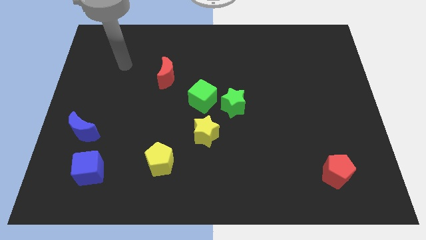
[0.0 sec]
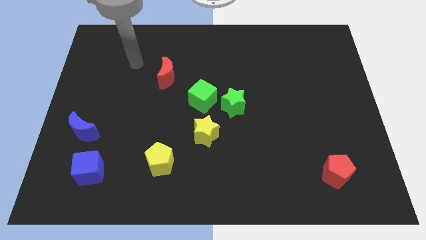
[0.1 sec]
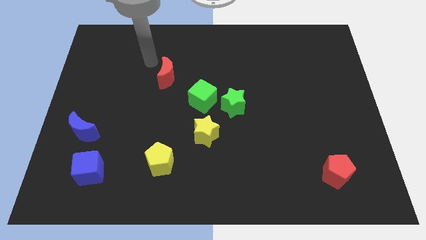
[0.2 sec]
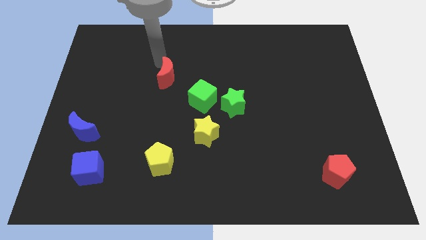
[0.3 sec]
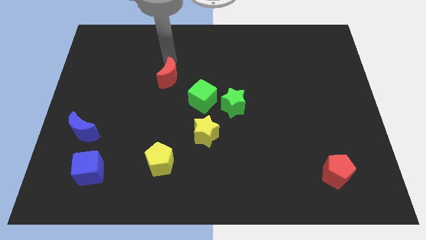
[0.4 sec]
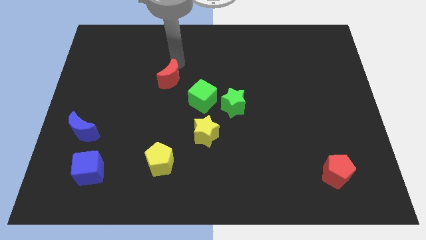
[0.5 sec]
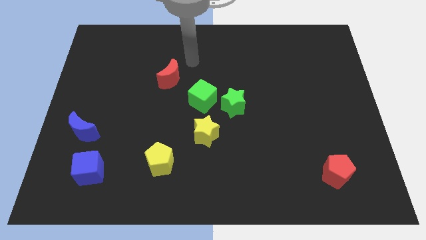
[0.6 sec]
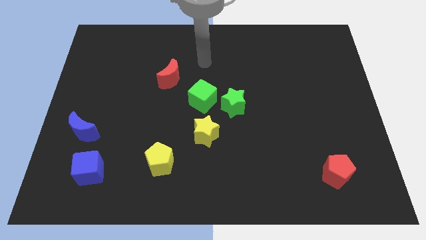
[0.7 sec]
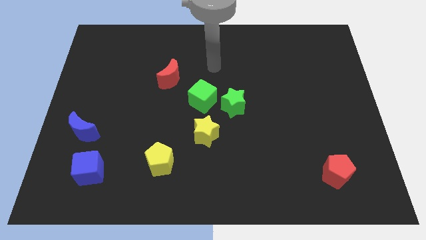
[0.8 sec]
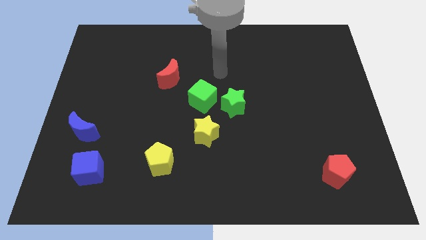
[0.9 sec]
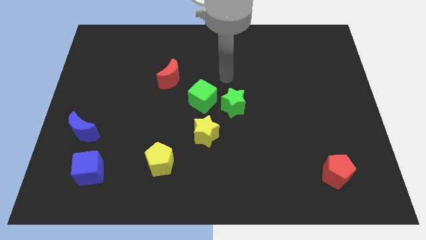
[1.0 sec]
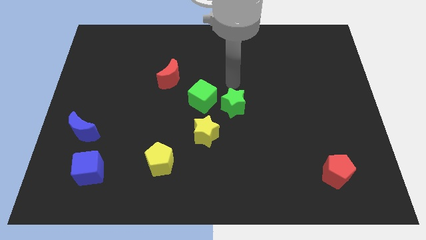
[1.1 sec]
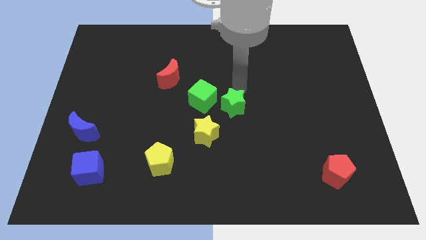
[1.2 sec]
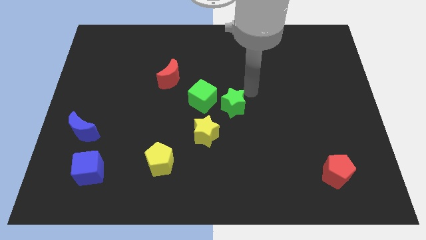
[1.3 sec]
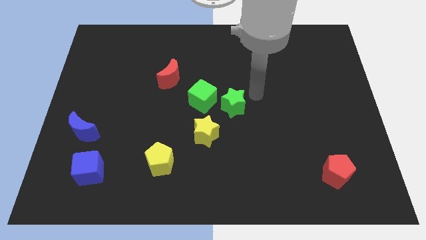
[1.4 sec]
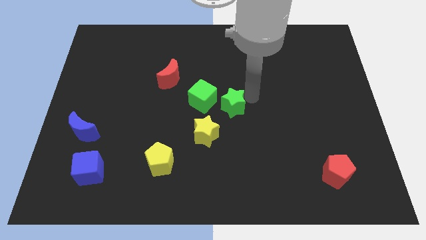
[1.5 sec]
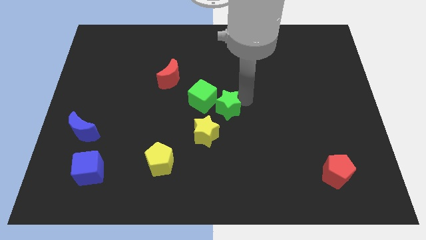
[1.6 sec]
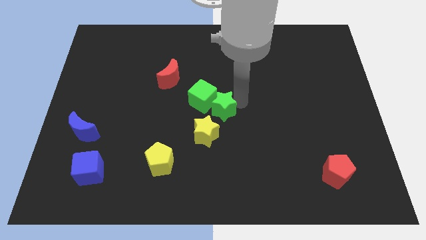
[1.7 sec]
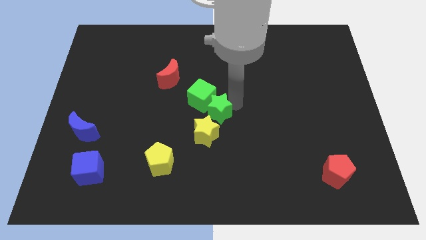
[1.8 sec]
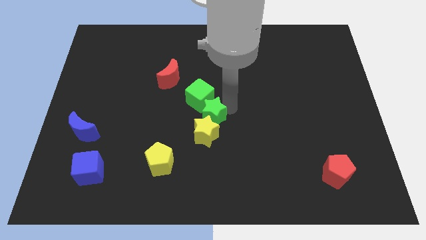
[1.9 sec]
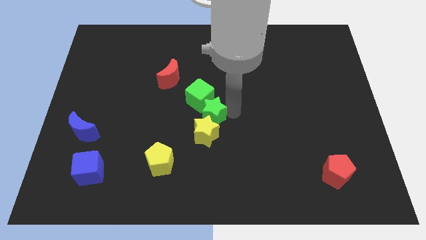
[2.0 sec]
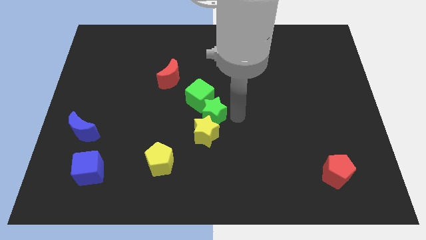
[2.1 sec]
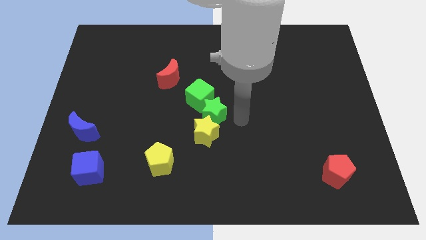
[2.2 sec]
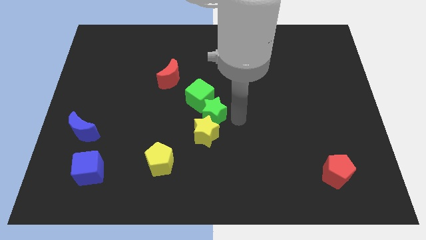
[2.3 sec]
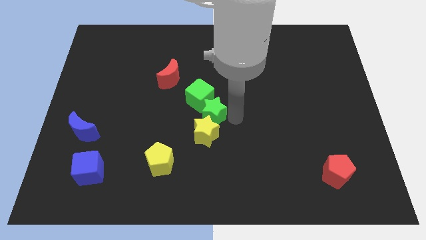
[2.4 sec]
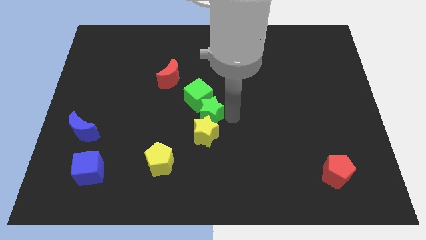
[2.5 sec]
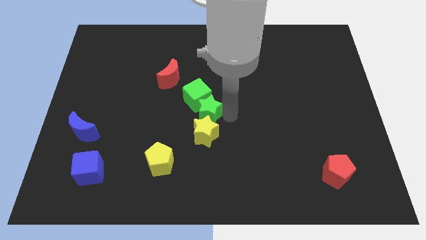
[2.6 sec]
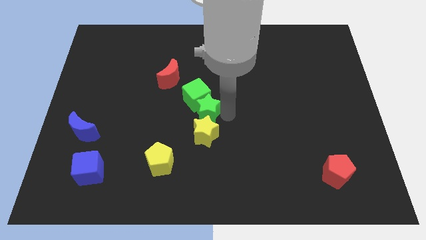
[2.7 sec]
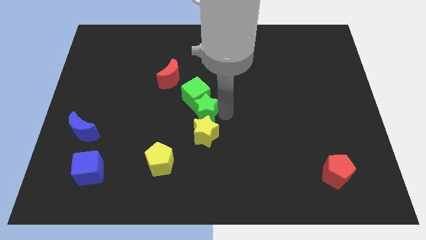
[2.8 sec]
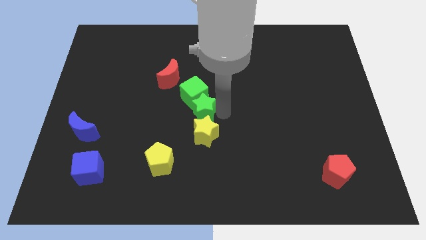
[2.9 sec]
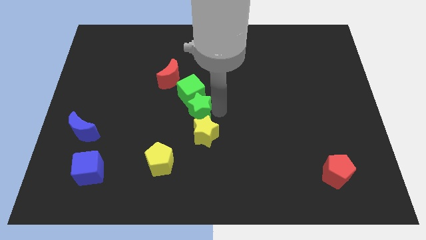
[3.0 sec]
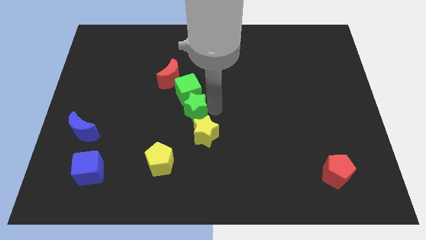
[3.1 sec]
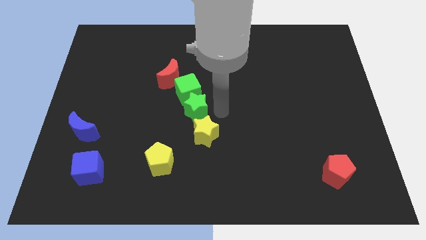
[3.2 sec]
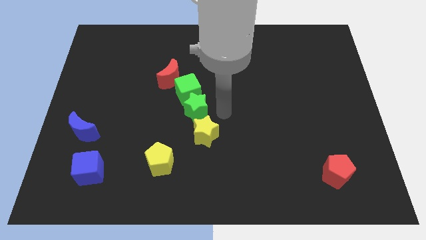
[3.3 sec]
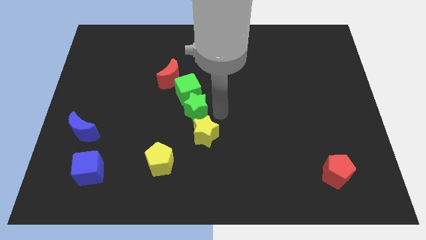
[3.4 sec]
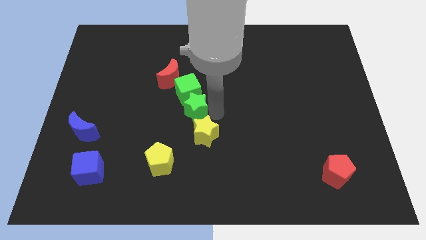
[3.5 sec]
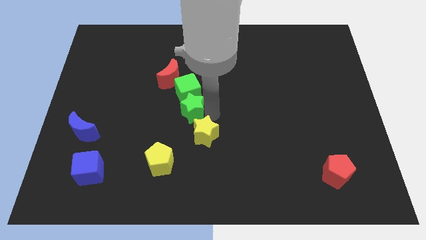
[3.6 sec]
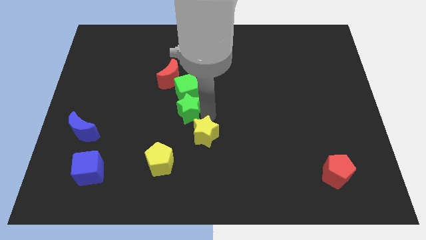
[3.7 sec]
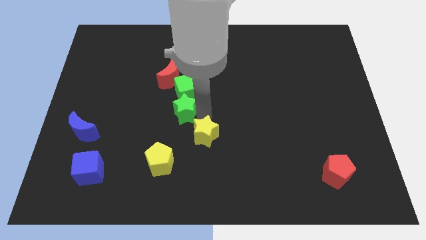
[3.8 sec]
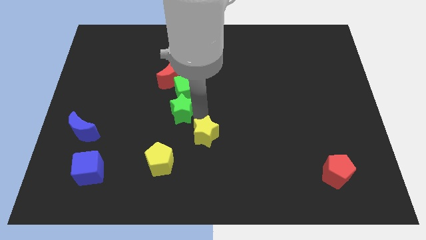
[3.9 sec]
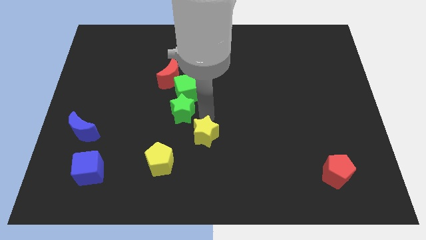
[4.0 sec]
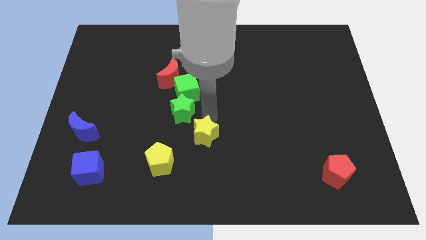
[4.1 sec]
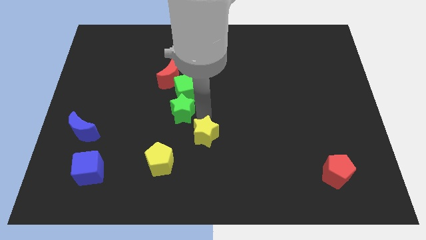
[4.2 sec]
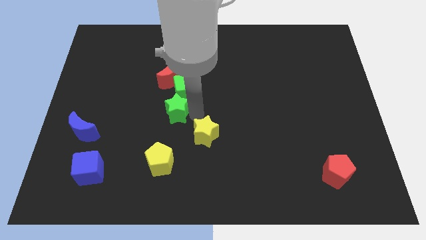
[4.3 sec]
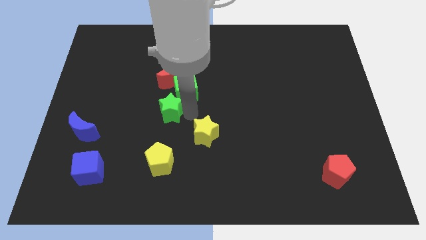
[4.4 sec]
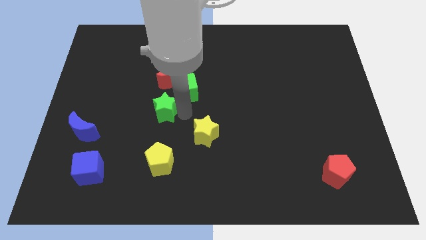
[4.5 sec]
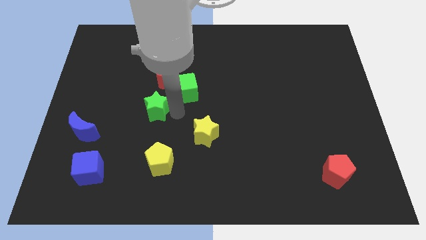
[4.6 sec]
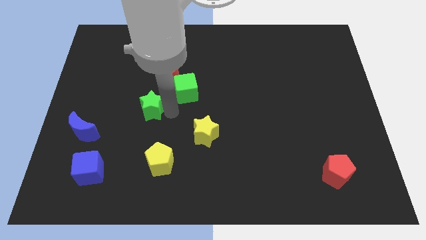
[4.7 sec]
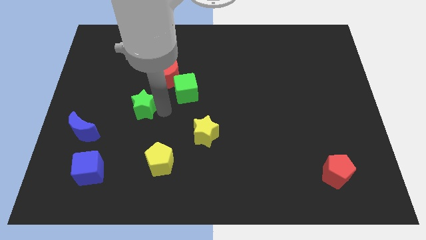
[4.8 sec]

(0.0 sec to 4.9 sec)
slide the green star left

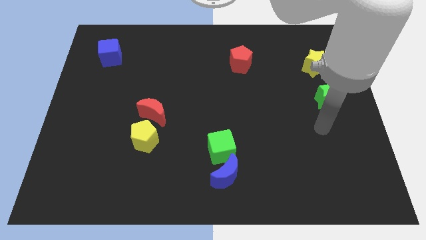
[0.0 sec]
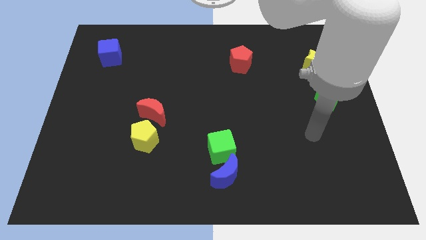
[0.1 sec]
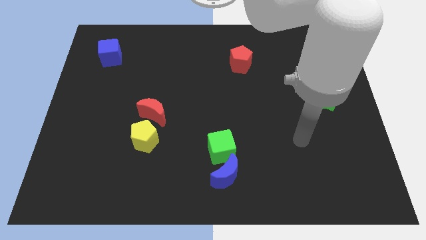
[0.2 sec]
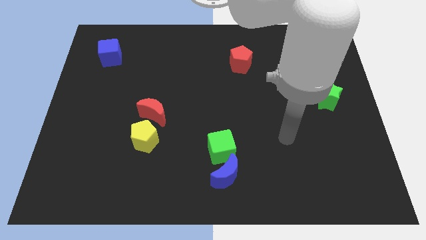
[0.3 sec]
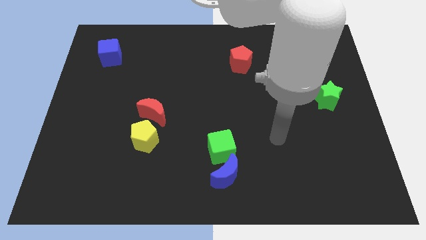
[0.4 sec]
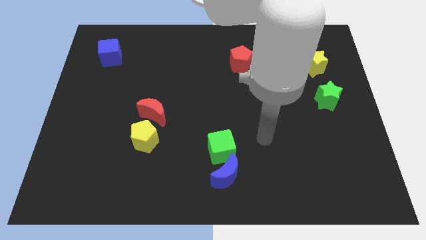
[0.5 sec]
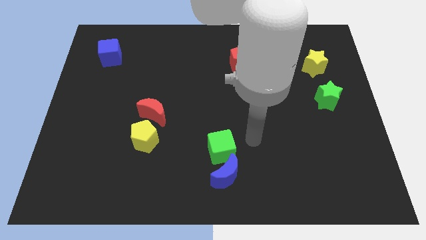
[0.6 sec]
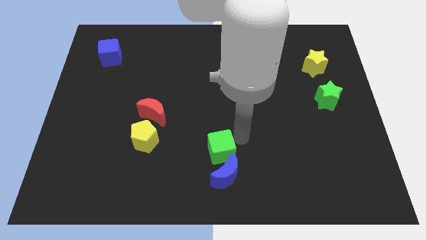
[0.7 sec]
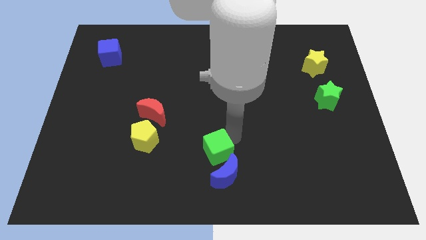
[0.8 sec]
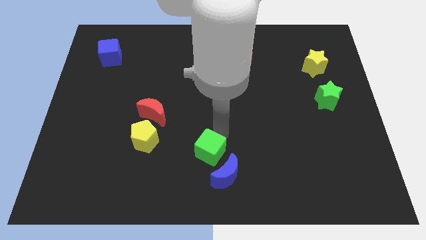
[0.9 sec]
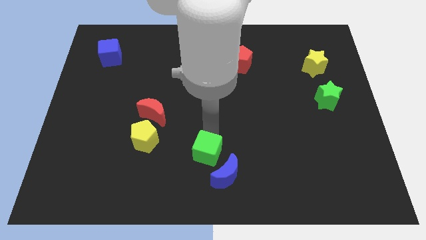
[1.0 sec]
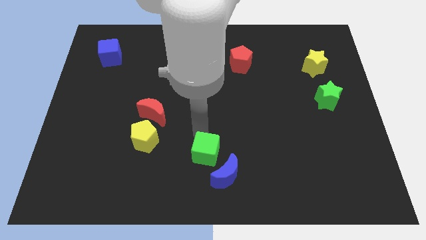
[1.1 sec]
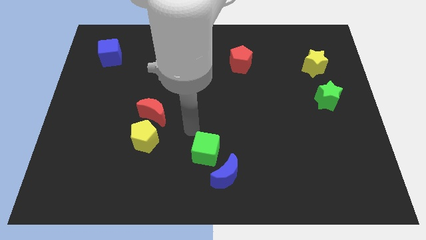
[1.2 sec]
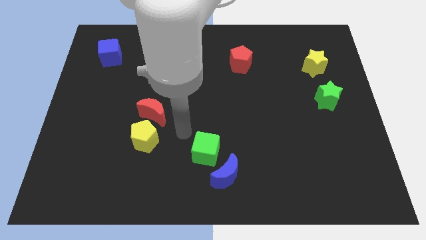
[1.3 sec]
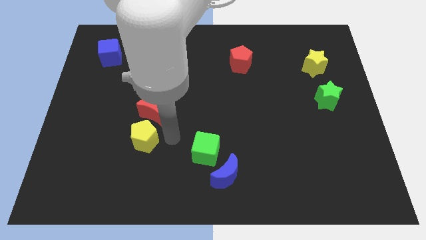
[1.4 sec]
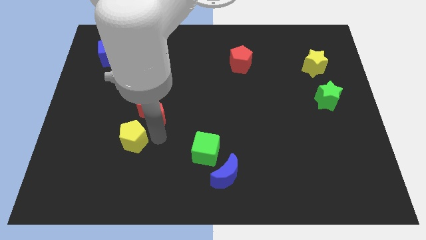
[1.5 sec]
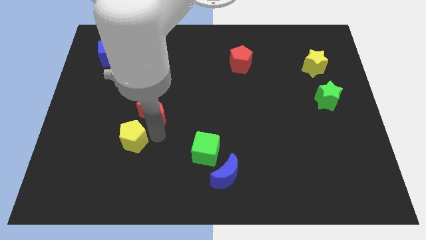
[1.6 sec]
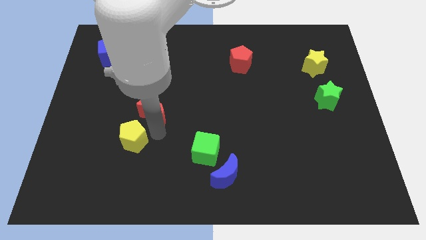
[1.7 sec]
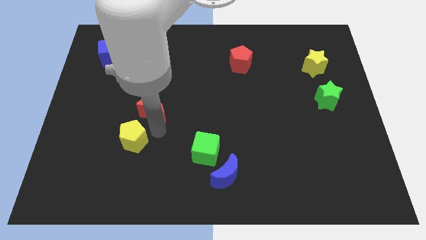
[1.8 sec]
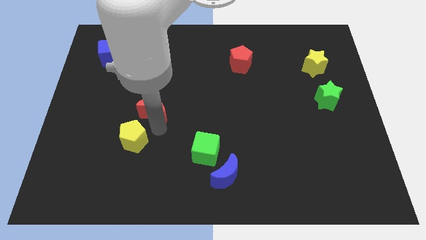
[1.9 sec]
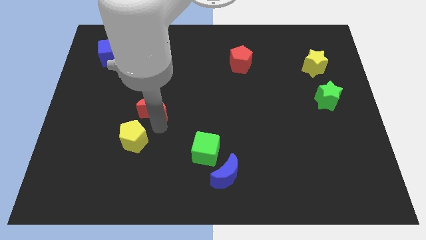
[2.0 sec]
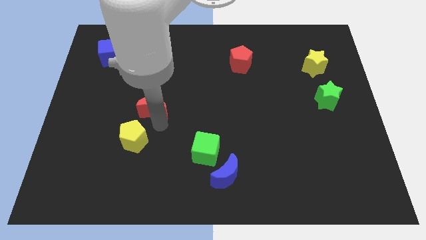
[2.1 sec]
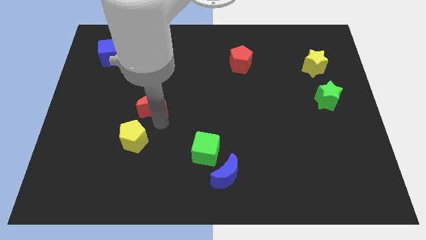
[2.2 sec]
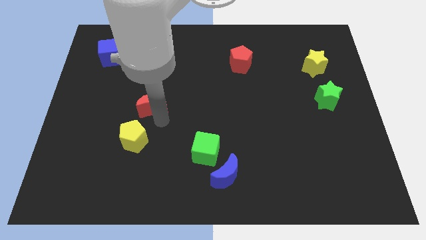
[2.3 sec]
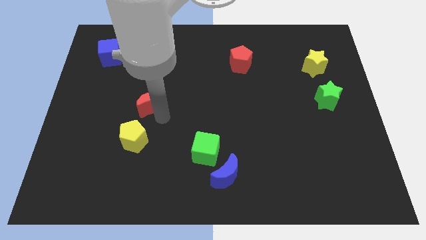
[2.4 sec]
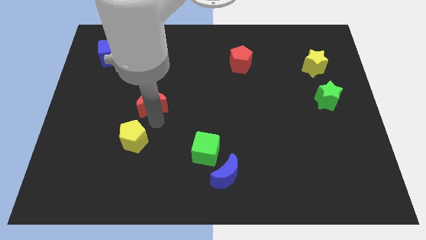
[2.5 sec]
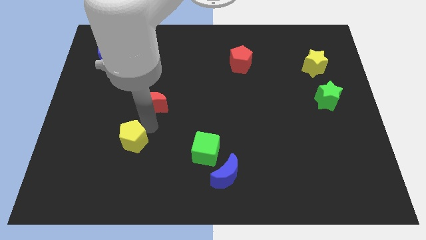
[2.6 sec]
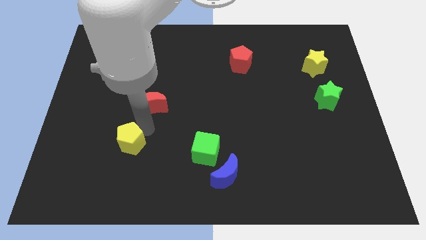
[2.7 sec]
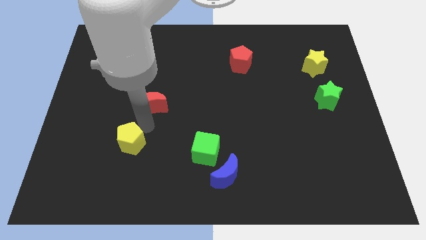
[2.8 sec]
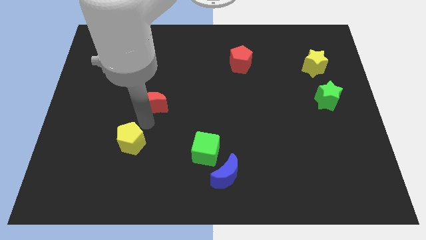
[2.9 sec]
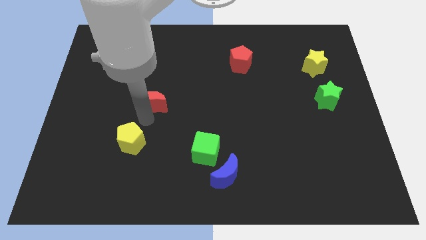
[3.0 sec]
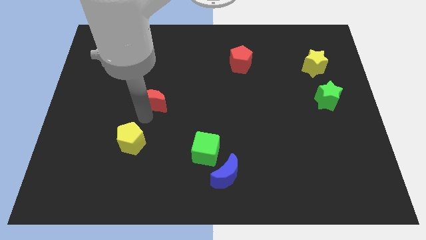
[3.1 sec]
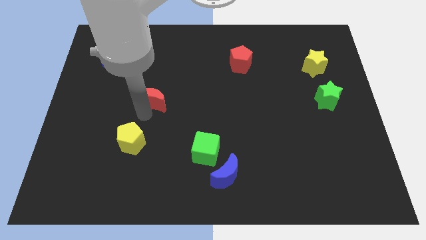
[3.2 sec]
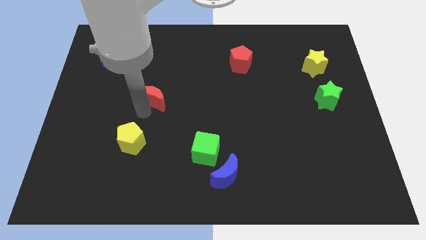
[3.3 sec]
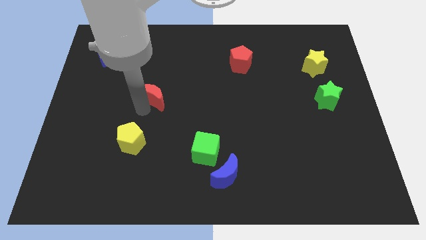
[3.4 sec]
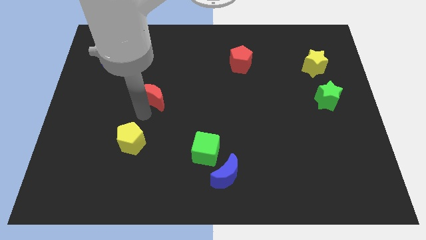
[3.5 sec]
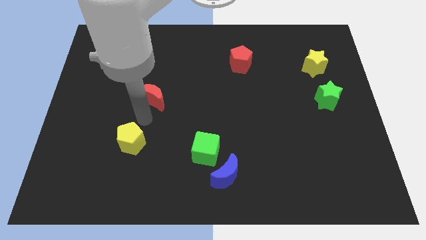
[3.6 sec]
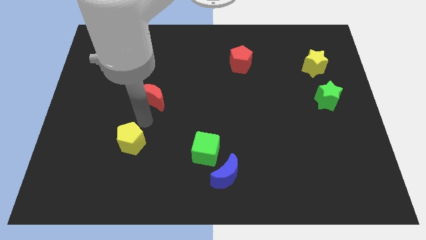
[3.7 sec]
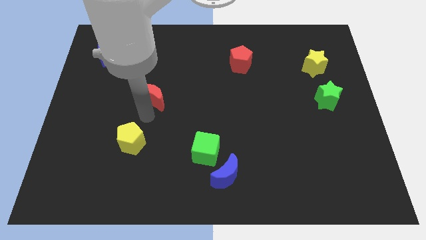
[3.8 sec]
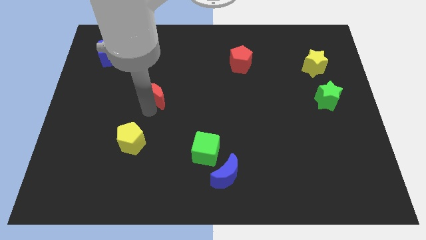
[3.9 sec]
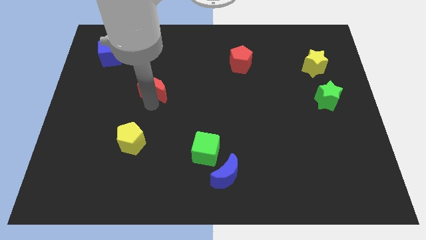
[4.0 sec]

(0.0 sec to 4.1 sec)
slightly push the red moon up
